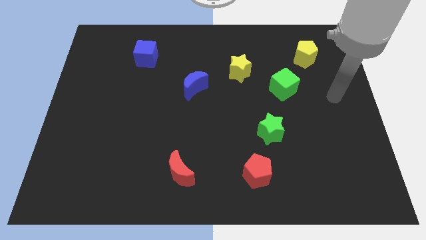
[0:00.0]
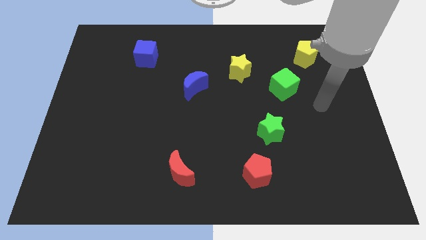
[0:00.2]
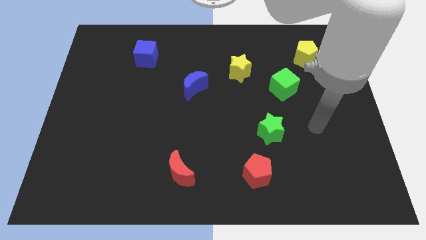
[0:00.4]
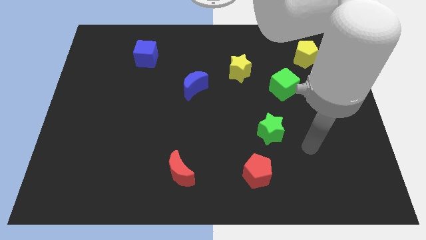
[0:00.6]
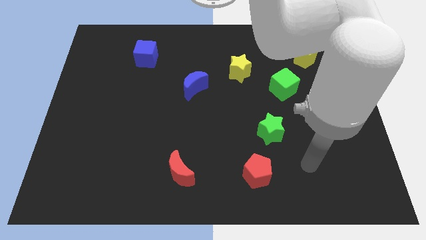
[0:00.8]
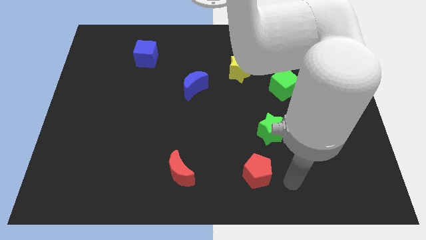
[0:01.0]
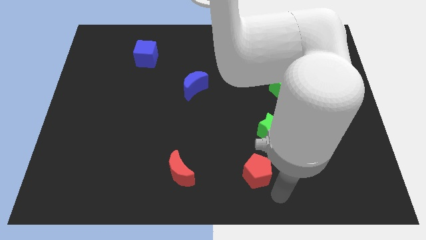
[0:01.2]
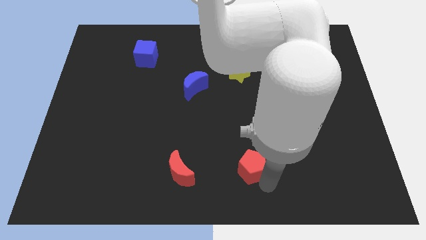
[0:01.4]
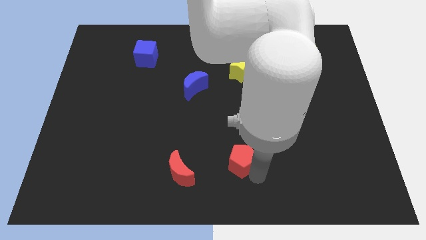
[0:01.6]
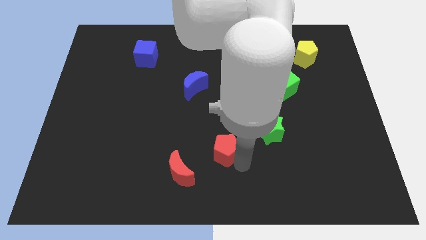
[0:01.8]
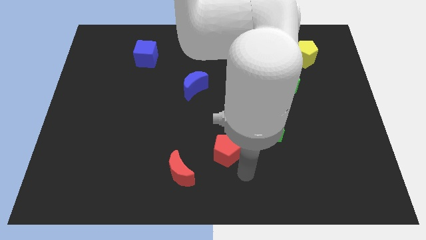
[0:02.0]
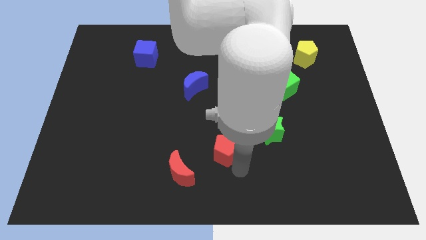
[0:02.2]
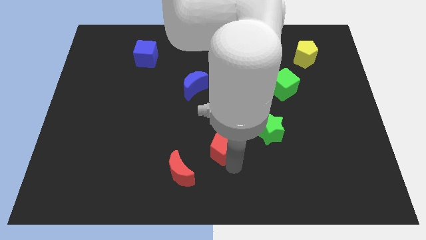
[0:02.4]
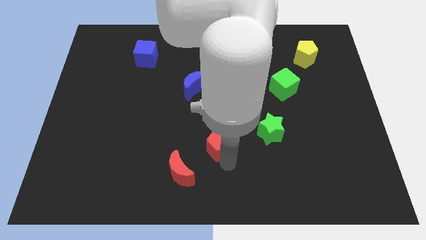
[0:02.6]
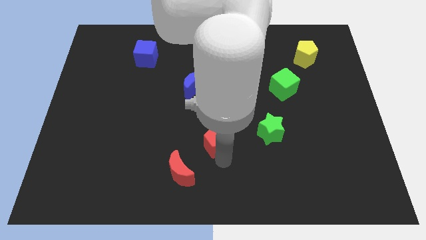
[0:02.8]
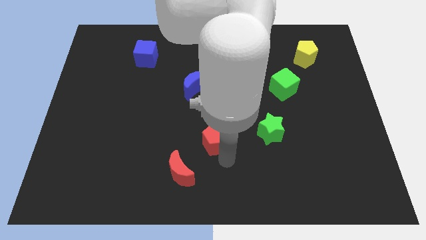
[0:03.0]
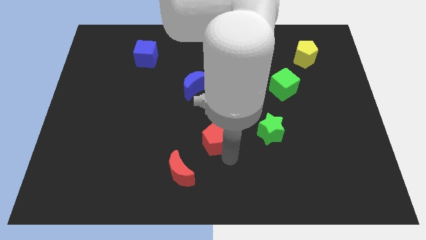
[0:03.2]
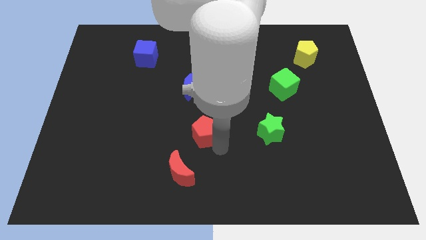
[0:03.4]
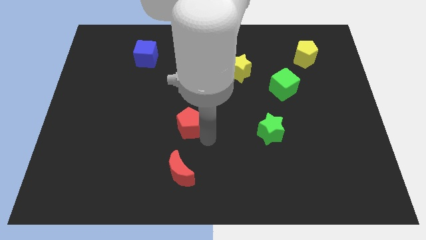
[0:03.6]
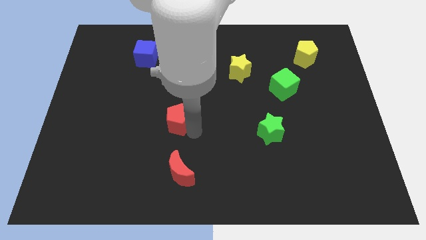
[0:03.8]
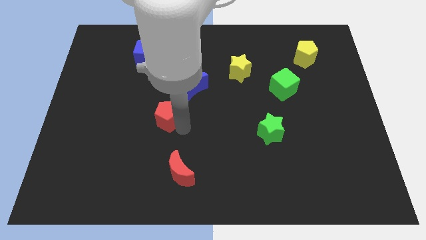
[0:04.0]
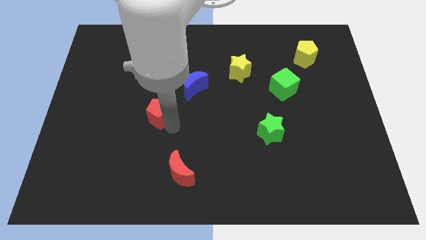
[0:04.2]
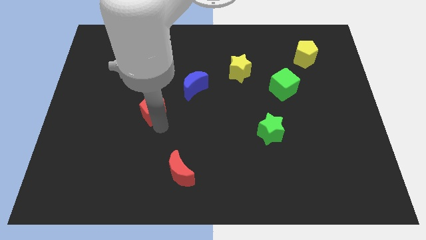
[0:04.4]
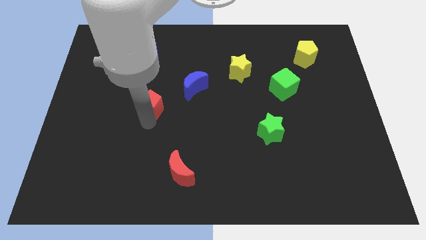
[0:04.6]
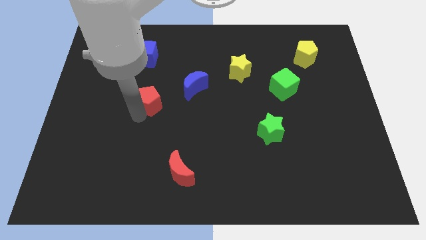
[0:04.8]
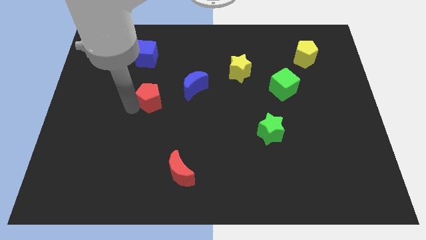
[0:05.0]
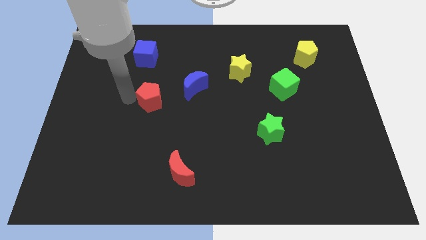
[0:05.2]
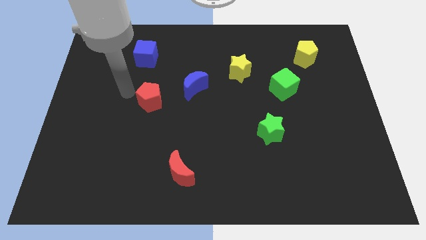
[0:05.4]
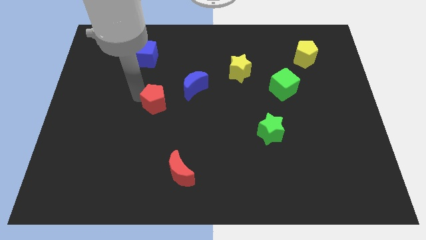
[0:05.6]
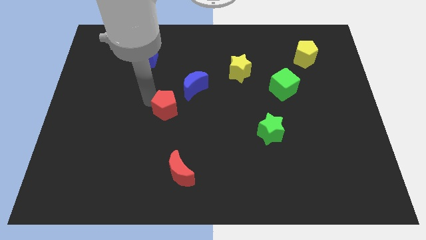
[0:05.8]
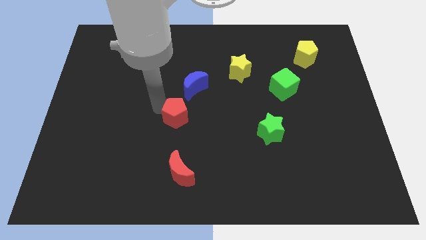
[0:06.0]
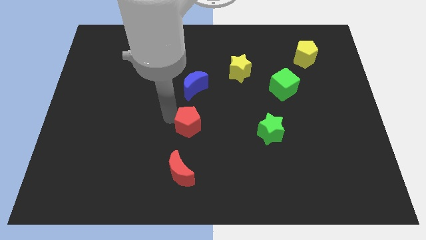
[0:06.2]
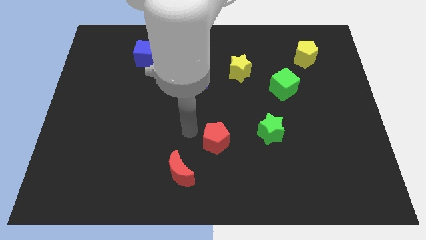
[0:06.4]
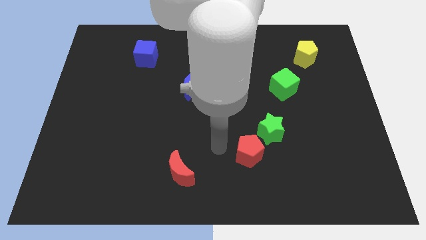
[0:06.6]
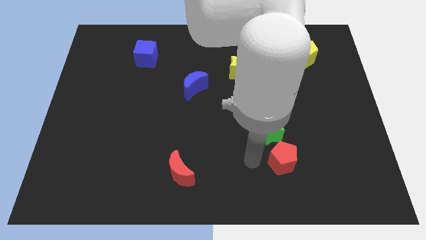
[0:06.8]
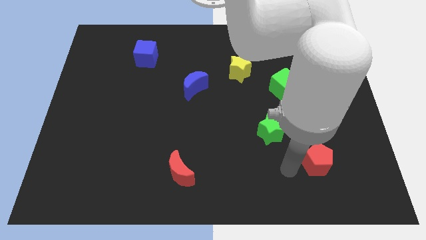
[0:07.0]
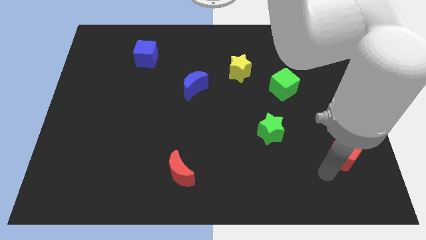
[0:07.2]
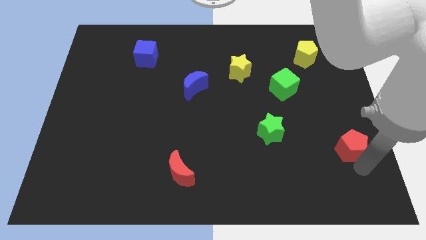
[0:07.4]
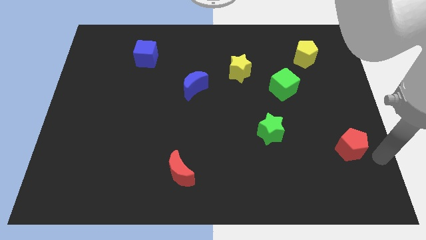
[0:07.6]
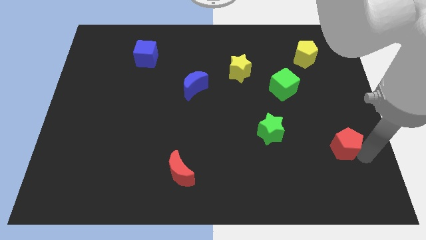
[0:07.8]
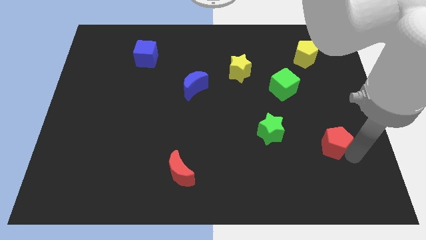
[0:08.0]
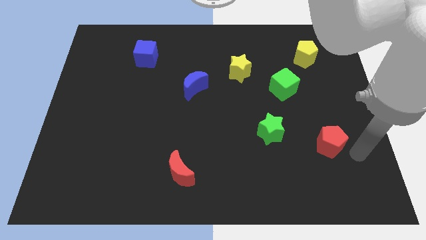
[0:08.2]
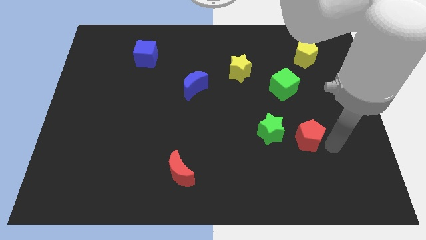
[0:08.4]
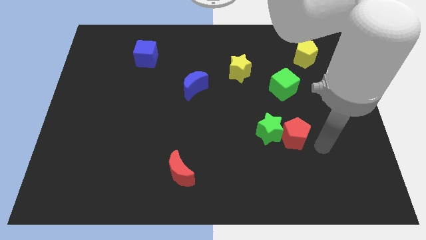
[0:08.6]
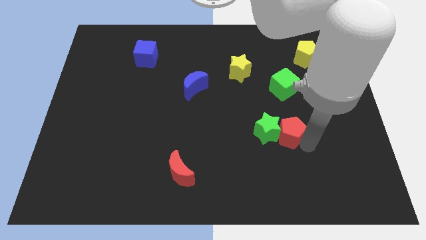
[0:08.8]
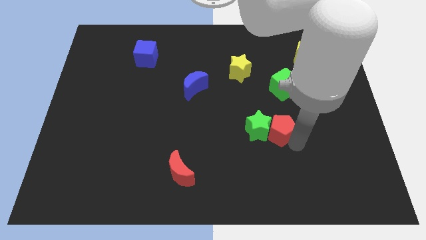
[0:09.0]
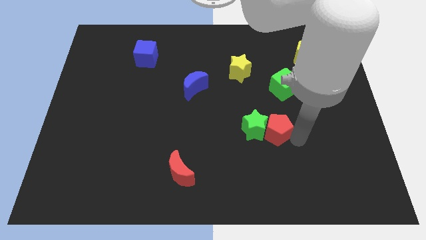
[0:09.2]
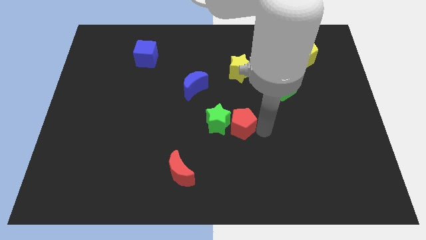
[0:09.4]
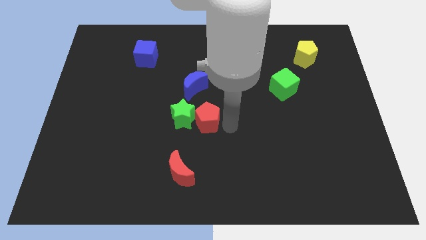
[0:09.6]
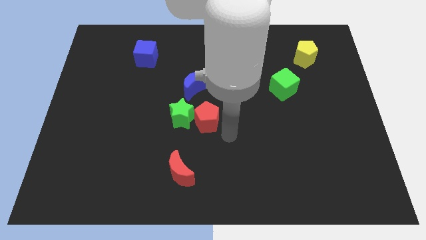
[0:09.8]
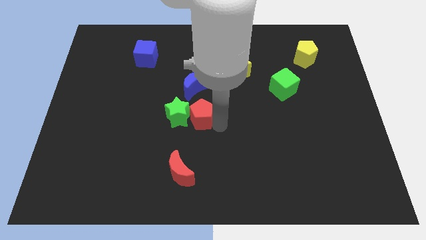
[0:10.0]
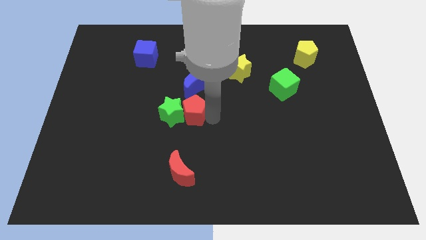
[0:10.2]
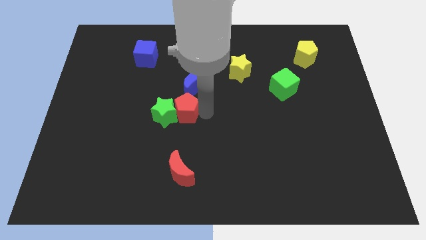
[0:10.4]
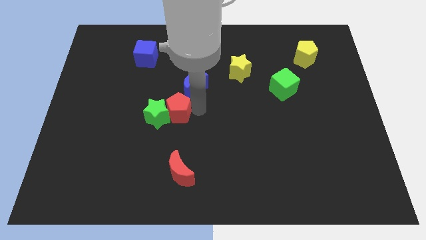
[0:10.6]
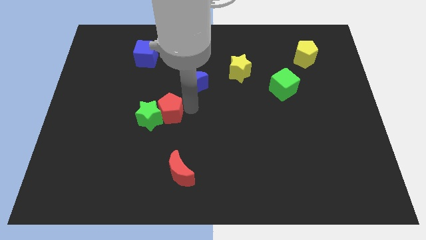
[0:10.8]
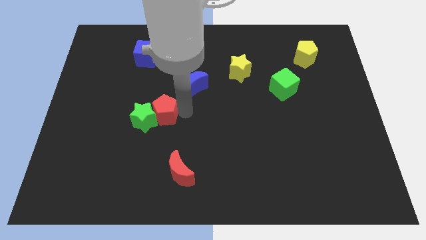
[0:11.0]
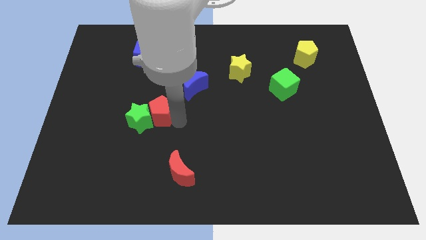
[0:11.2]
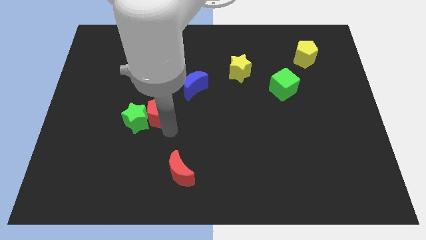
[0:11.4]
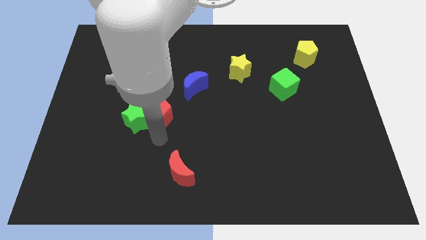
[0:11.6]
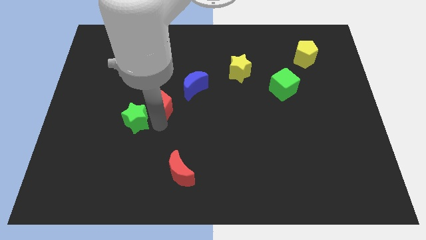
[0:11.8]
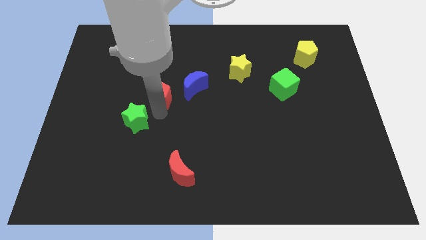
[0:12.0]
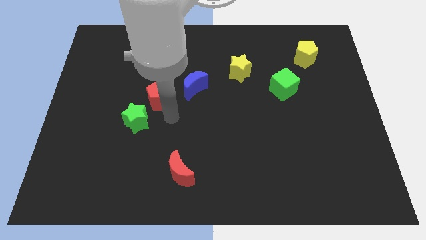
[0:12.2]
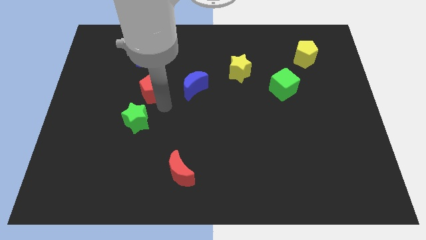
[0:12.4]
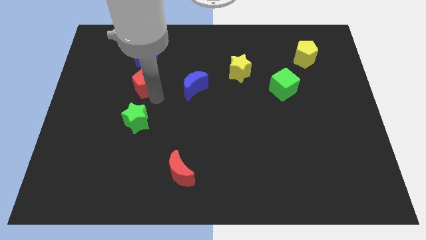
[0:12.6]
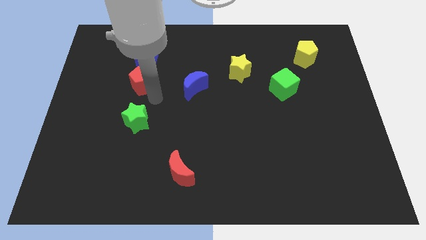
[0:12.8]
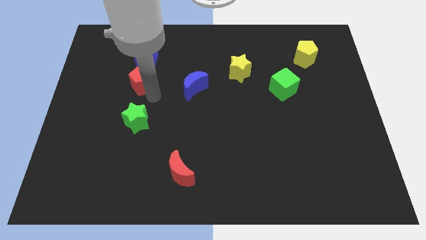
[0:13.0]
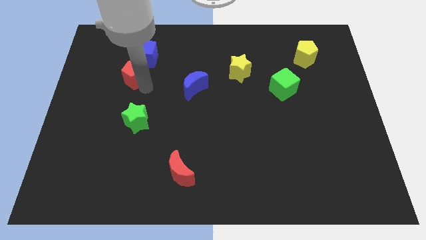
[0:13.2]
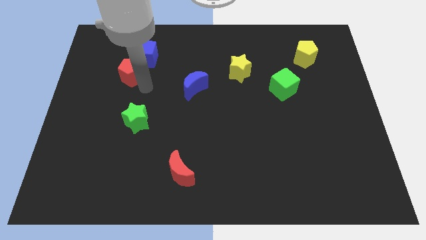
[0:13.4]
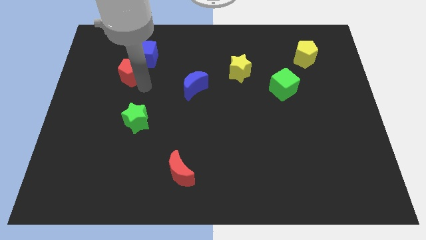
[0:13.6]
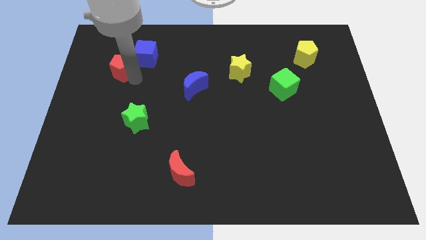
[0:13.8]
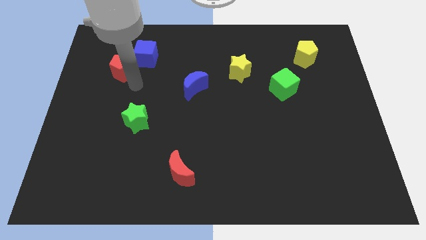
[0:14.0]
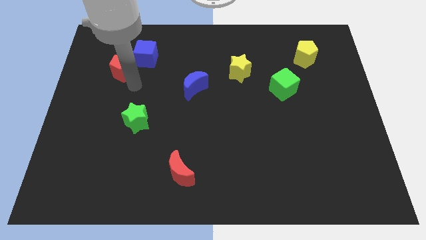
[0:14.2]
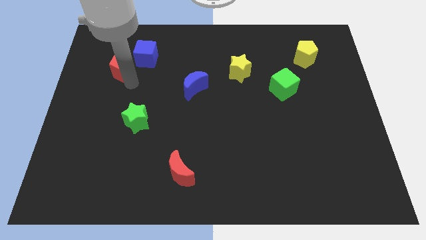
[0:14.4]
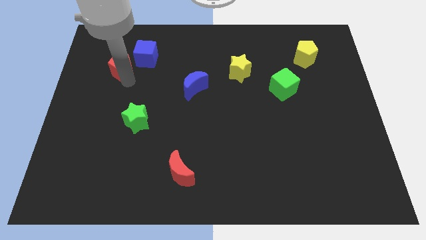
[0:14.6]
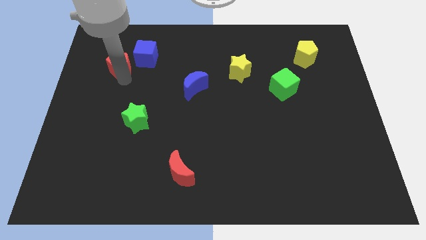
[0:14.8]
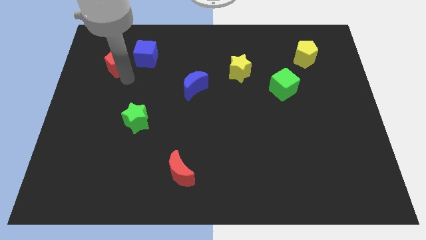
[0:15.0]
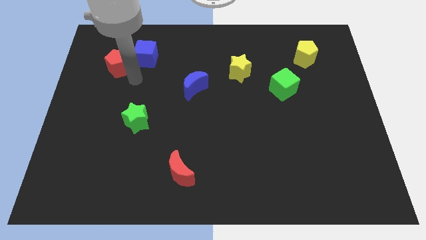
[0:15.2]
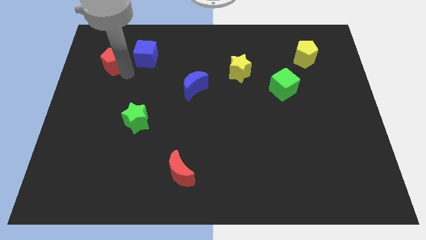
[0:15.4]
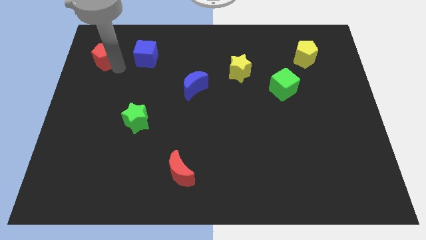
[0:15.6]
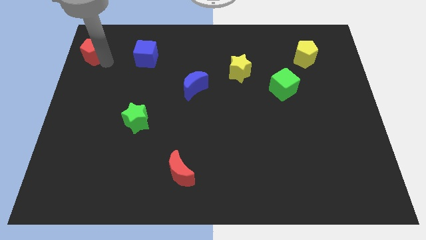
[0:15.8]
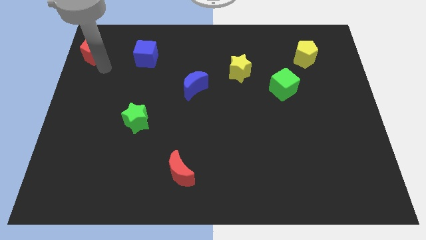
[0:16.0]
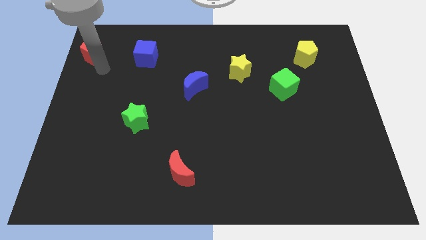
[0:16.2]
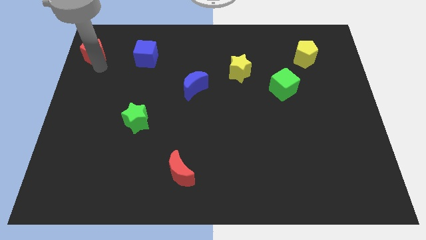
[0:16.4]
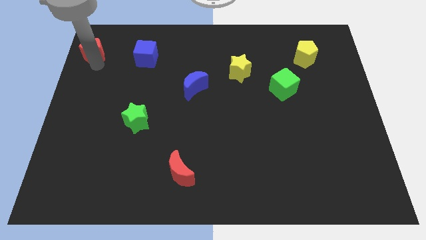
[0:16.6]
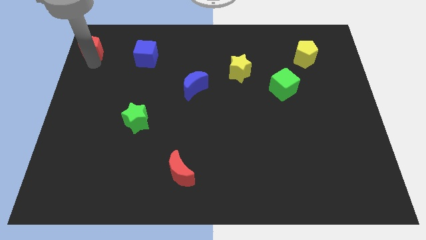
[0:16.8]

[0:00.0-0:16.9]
move the red pentagon to the top left corner
